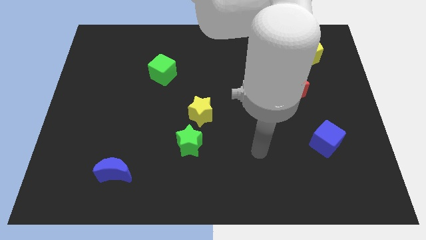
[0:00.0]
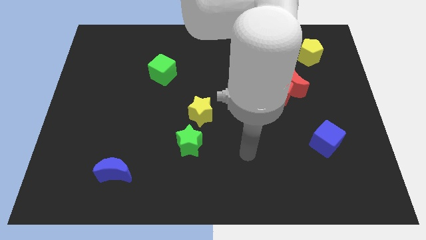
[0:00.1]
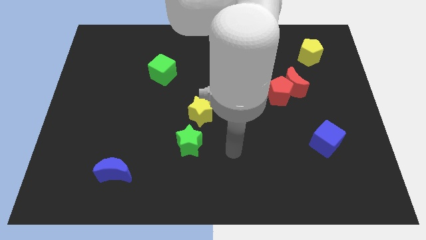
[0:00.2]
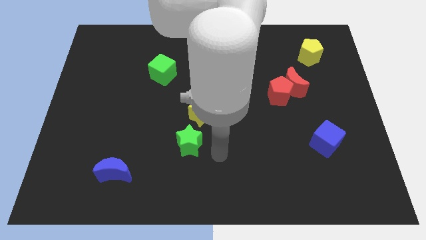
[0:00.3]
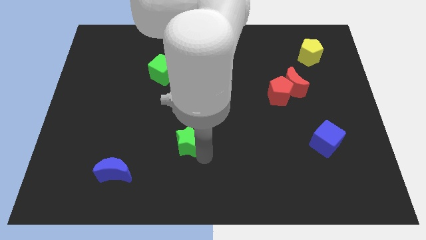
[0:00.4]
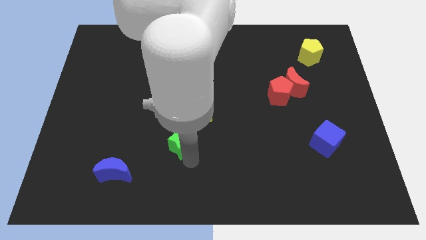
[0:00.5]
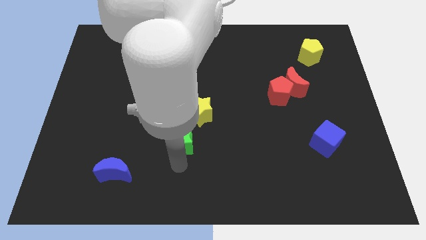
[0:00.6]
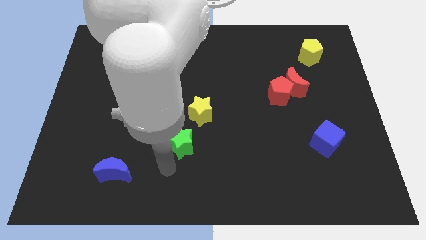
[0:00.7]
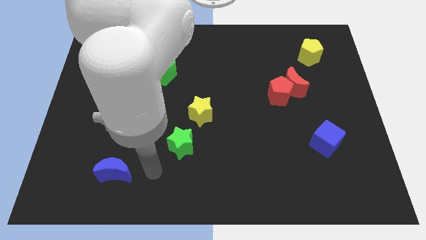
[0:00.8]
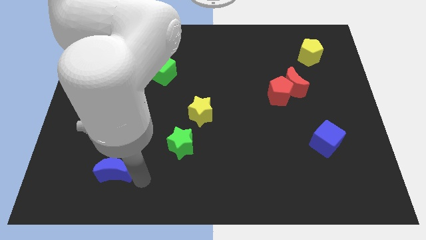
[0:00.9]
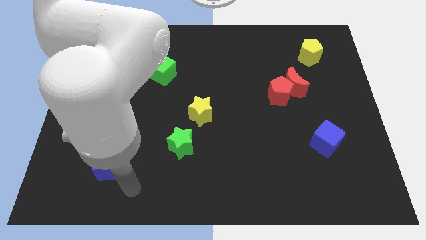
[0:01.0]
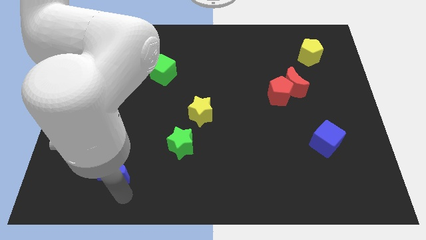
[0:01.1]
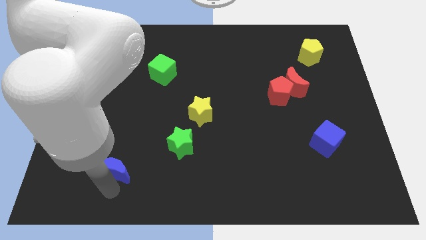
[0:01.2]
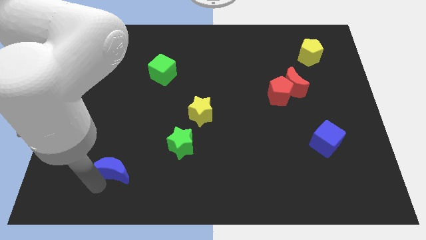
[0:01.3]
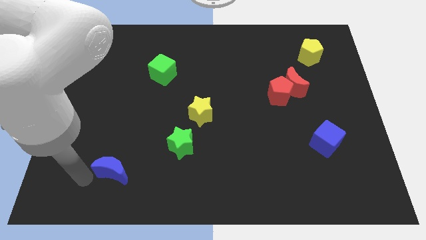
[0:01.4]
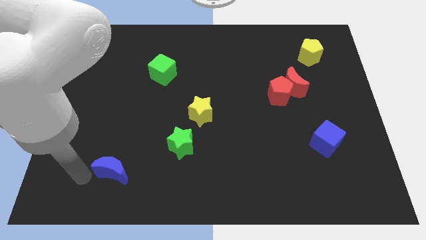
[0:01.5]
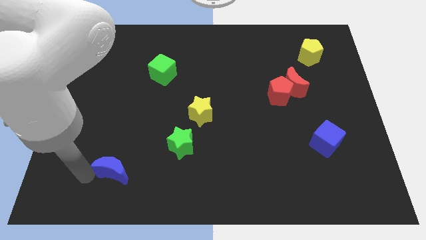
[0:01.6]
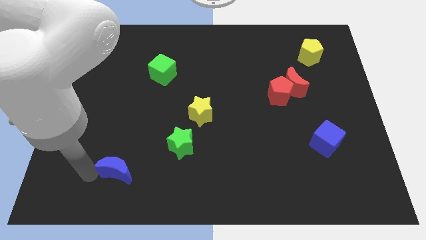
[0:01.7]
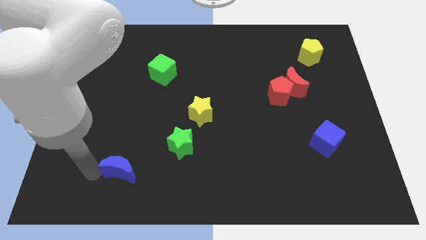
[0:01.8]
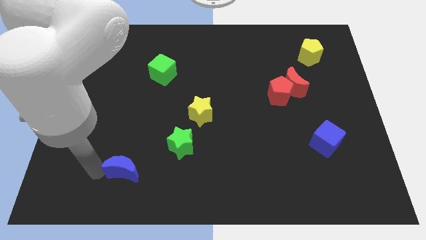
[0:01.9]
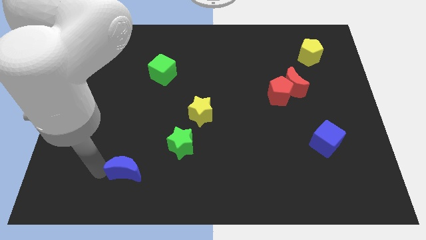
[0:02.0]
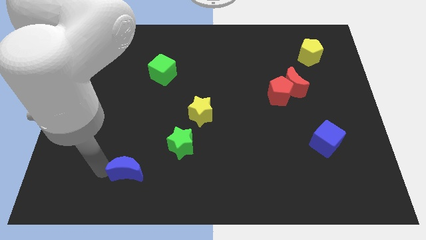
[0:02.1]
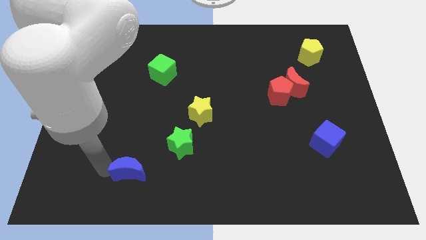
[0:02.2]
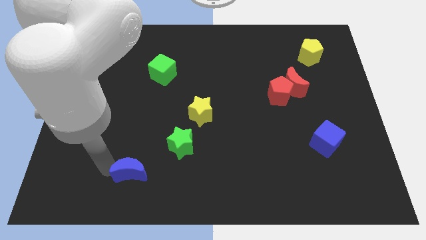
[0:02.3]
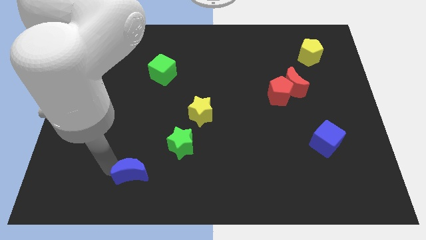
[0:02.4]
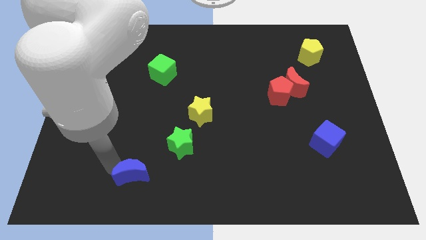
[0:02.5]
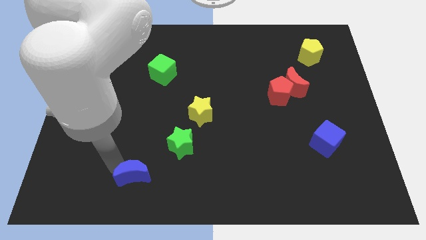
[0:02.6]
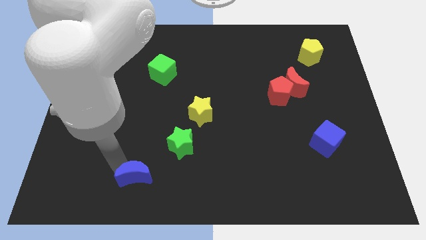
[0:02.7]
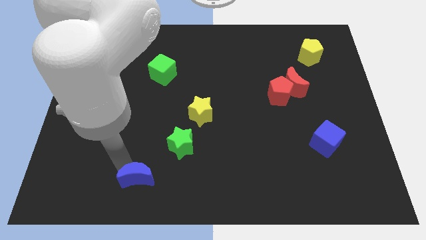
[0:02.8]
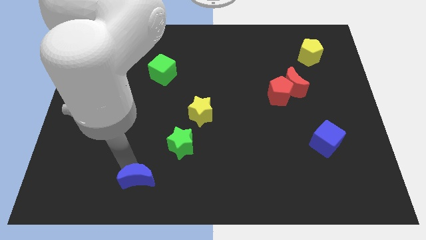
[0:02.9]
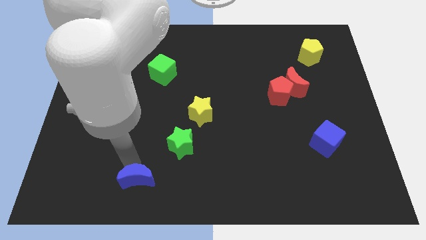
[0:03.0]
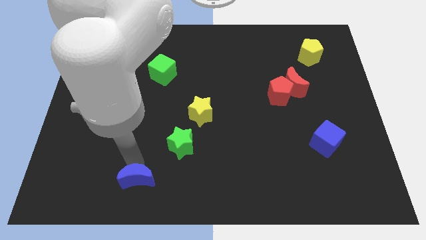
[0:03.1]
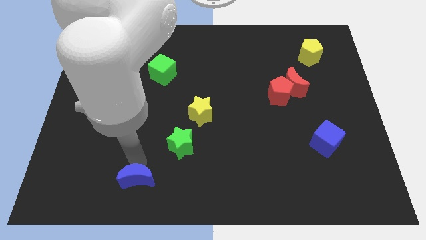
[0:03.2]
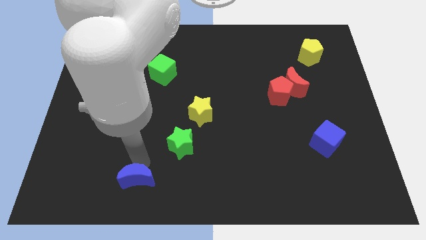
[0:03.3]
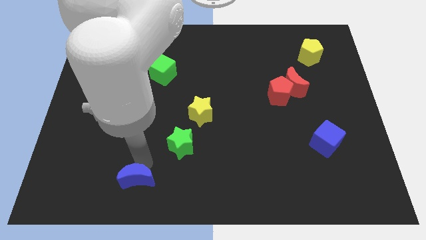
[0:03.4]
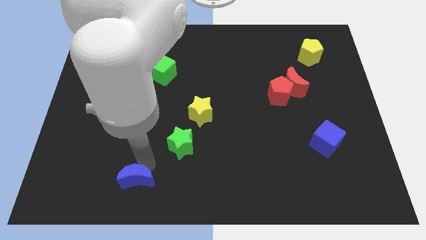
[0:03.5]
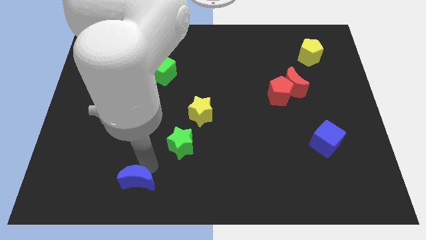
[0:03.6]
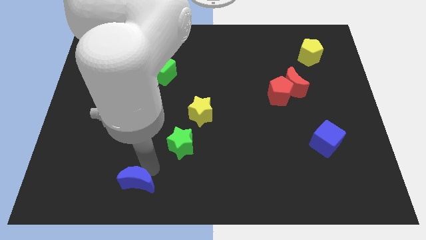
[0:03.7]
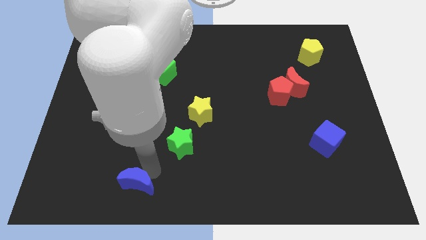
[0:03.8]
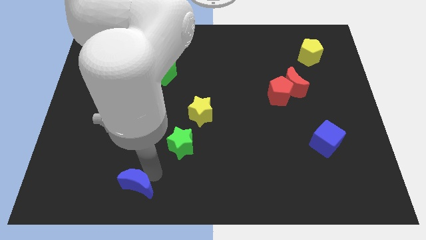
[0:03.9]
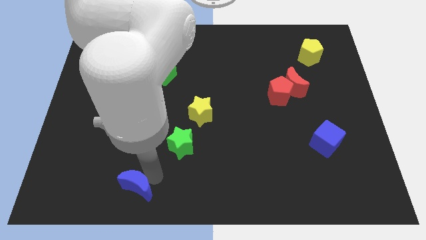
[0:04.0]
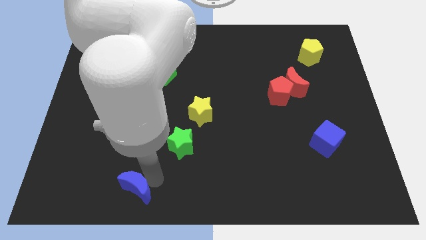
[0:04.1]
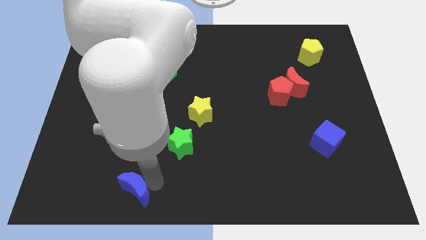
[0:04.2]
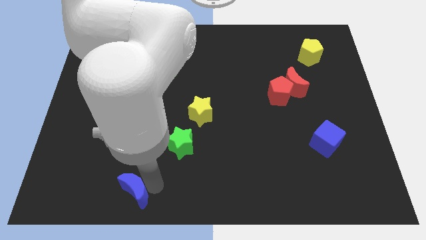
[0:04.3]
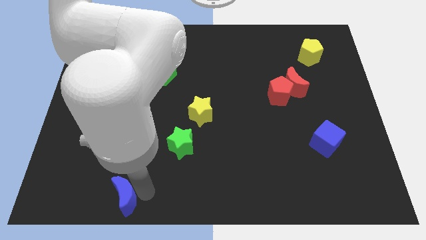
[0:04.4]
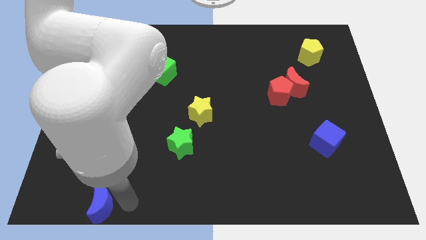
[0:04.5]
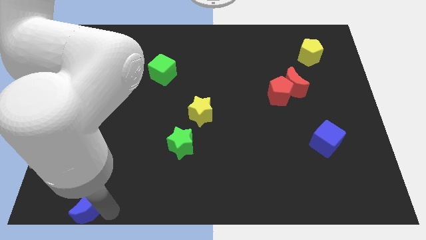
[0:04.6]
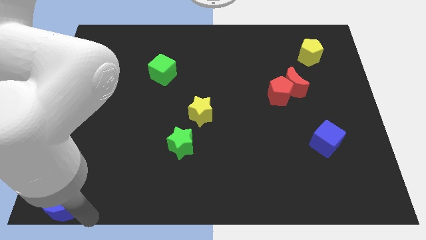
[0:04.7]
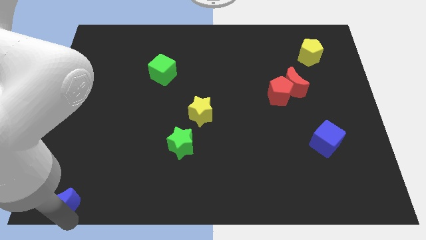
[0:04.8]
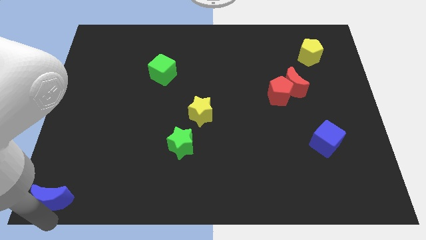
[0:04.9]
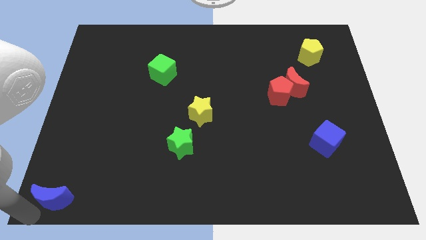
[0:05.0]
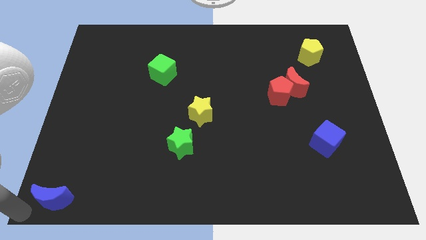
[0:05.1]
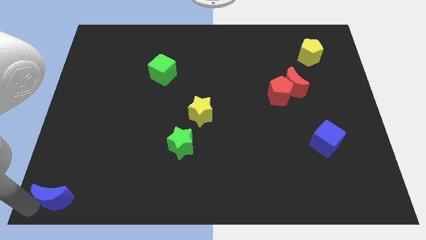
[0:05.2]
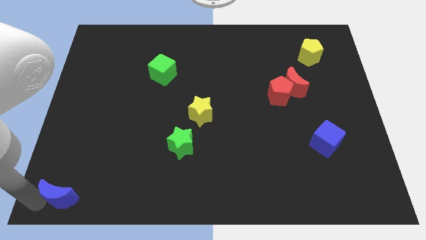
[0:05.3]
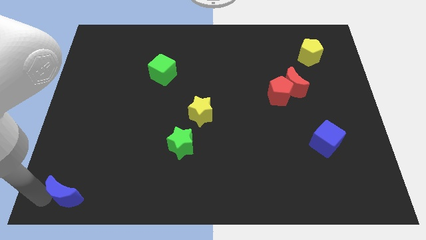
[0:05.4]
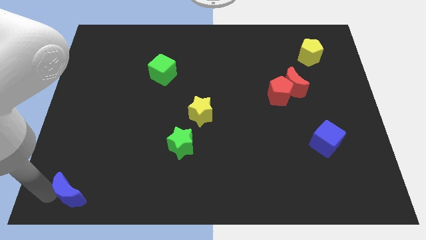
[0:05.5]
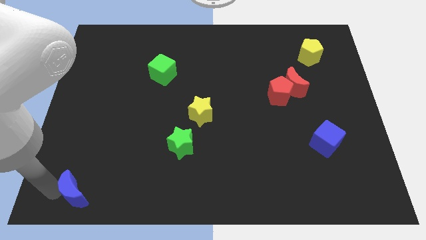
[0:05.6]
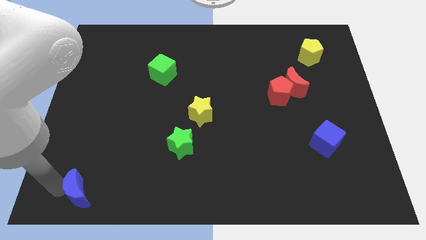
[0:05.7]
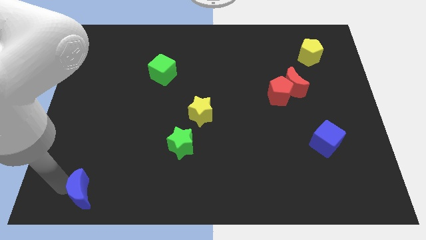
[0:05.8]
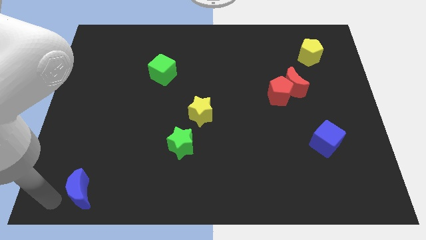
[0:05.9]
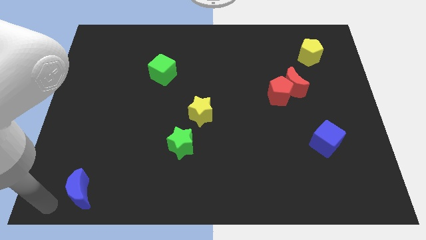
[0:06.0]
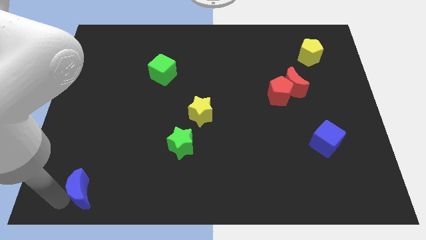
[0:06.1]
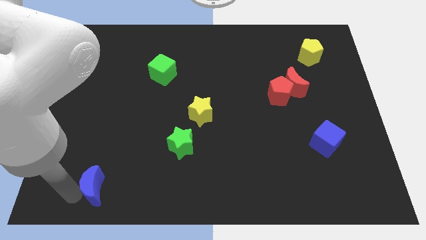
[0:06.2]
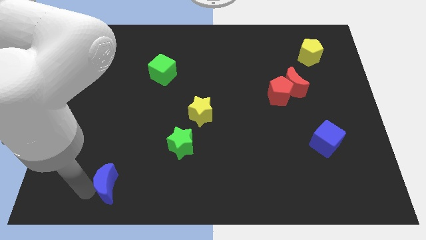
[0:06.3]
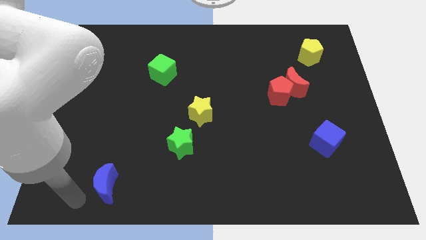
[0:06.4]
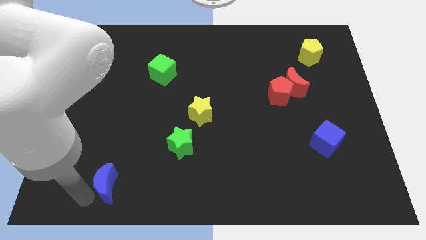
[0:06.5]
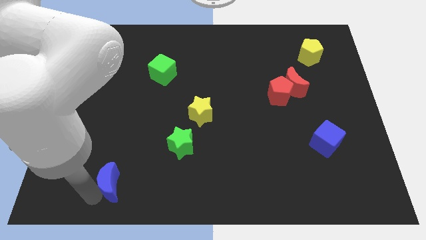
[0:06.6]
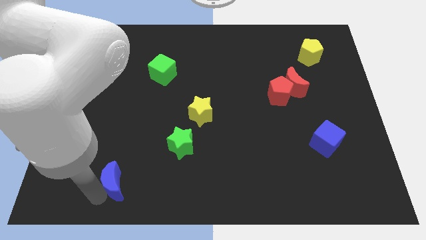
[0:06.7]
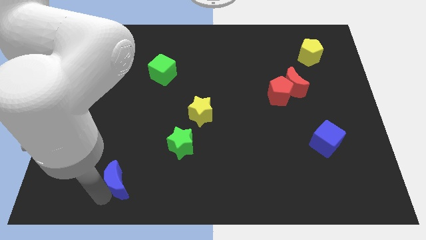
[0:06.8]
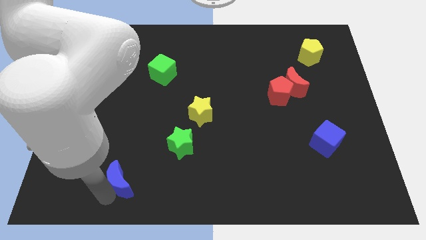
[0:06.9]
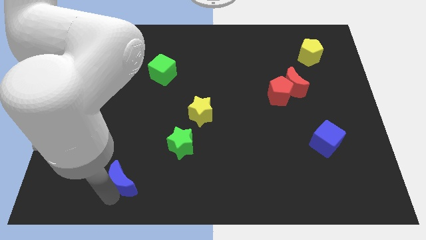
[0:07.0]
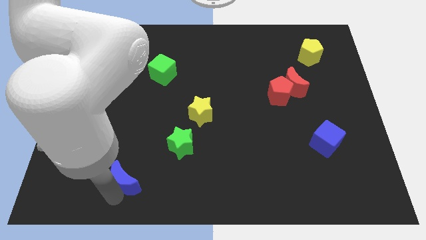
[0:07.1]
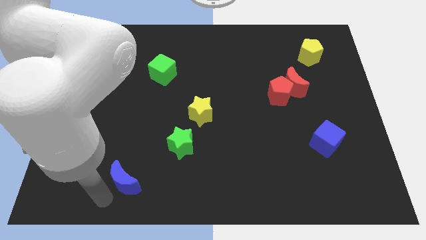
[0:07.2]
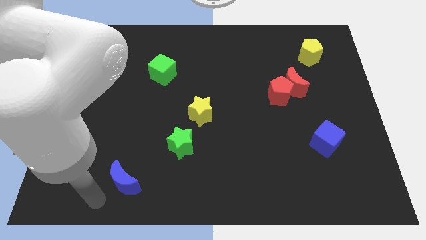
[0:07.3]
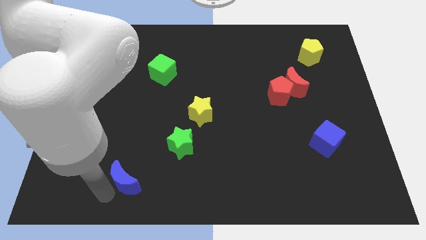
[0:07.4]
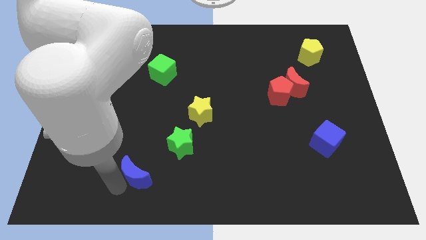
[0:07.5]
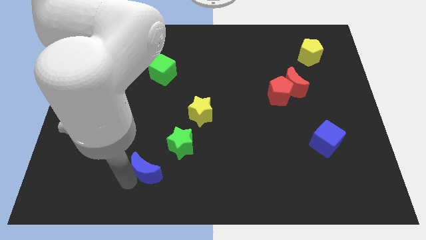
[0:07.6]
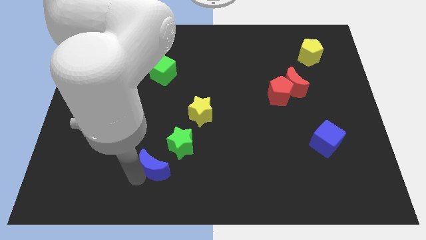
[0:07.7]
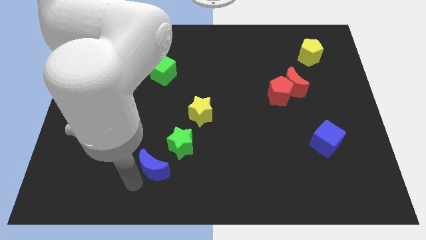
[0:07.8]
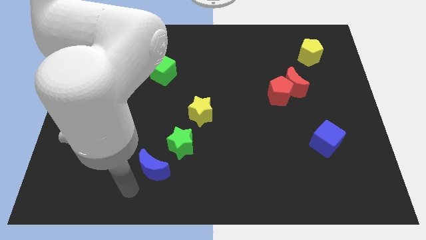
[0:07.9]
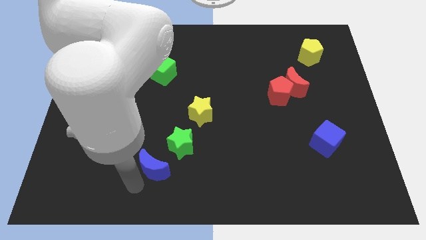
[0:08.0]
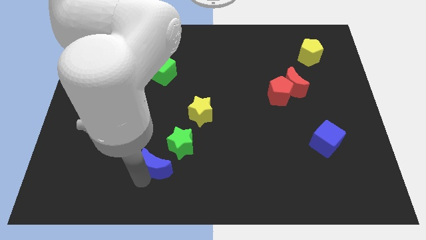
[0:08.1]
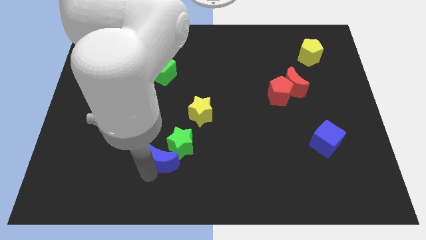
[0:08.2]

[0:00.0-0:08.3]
move the blue moon close to the green star
